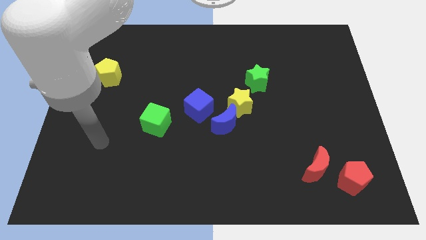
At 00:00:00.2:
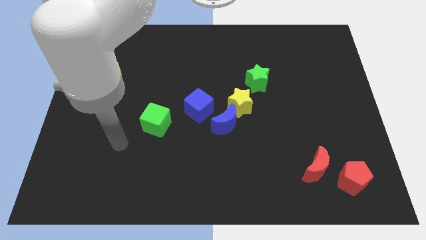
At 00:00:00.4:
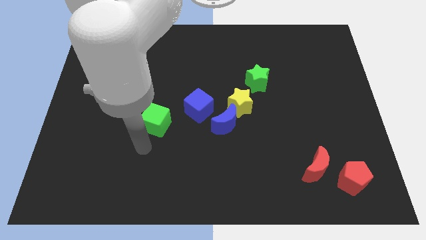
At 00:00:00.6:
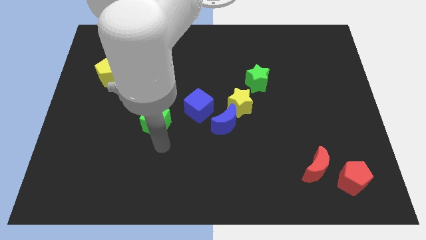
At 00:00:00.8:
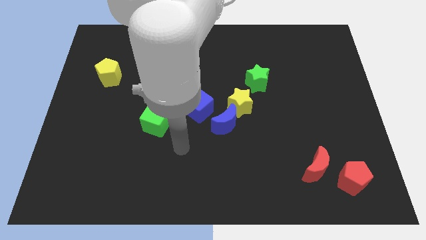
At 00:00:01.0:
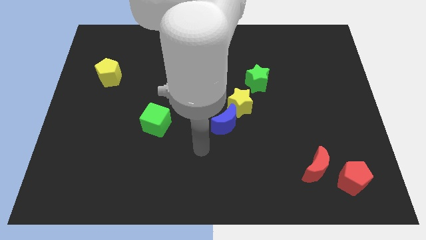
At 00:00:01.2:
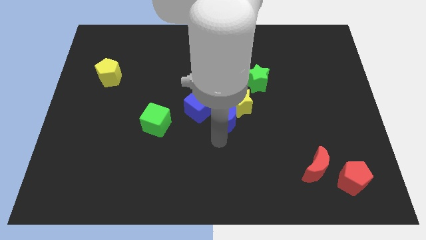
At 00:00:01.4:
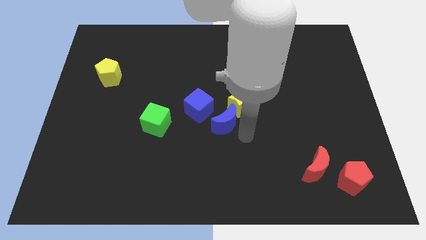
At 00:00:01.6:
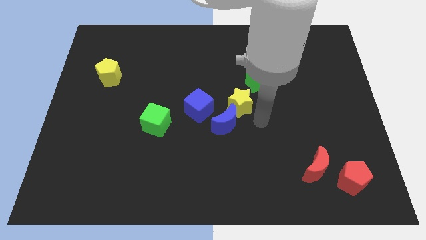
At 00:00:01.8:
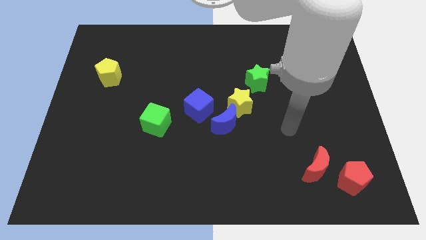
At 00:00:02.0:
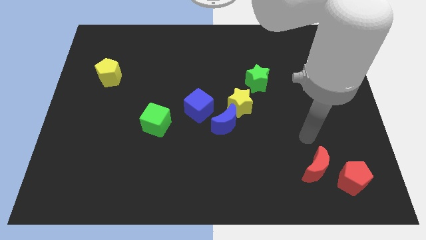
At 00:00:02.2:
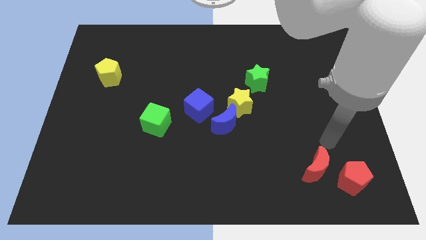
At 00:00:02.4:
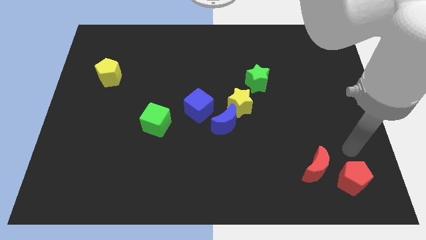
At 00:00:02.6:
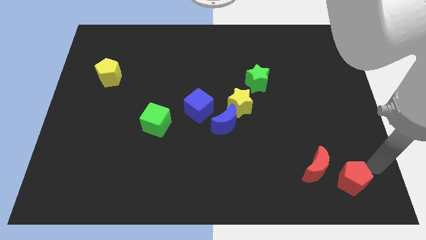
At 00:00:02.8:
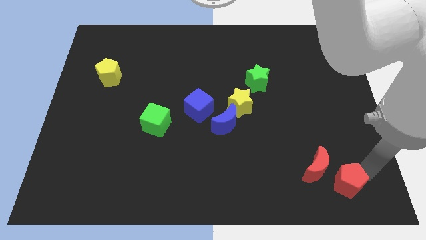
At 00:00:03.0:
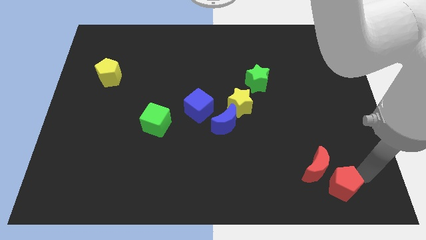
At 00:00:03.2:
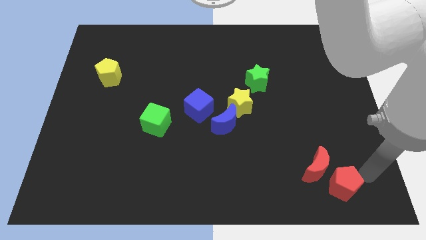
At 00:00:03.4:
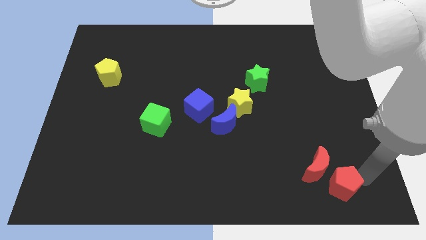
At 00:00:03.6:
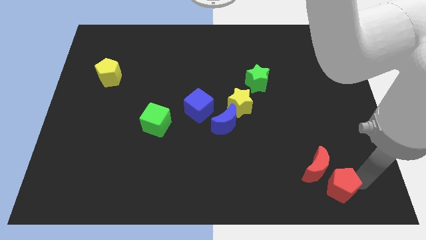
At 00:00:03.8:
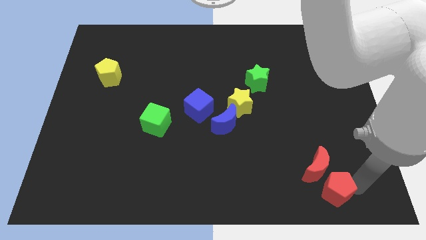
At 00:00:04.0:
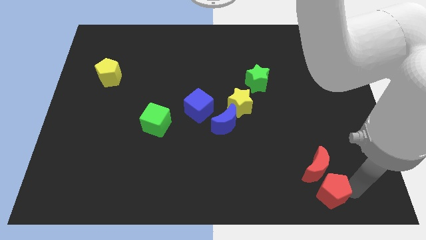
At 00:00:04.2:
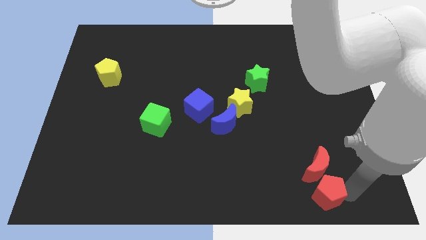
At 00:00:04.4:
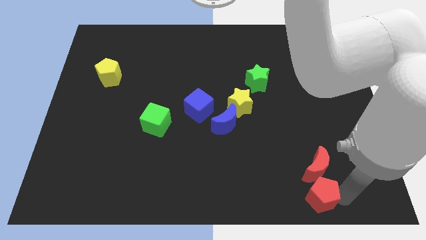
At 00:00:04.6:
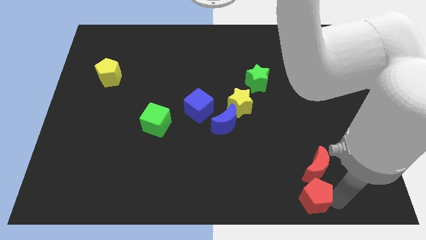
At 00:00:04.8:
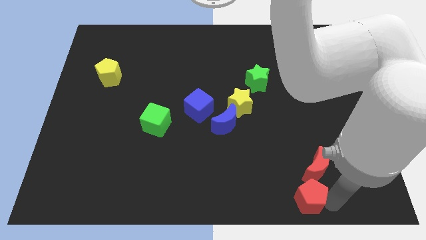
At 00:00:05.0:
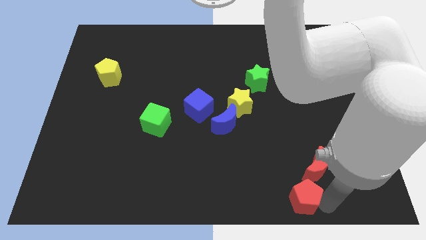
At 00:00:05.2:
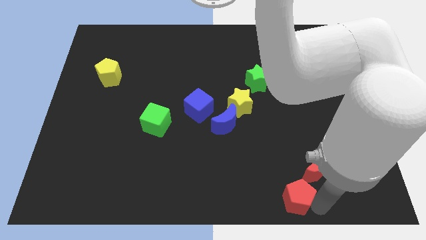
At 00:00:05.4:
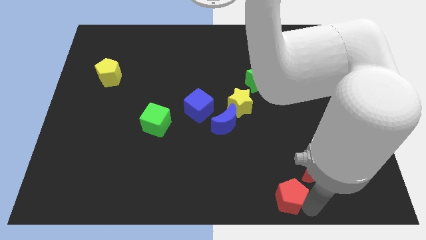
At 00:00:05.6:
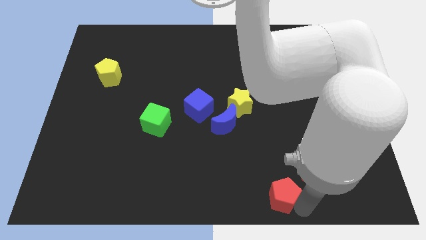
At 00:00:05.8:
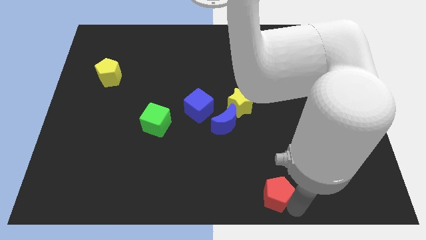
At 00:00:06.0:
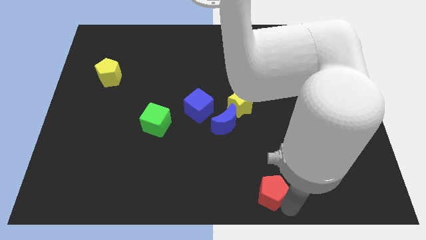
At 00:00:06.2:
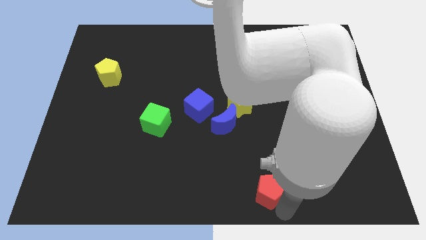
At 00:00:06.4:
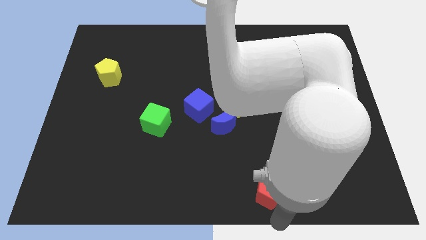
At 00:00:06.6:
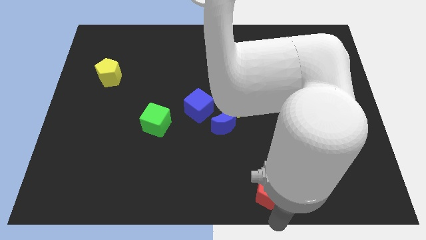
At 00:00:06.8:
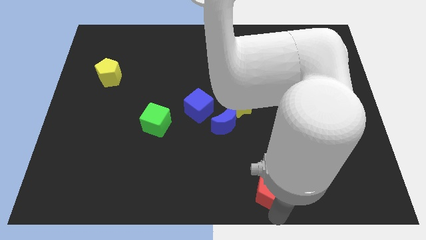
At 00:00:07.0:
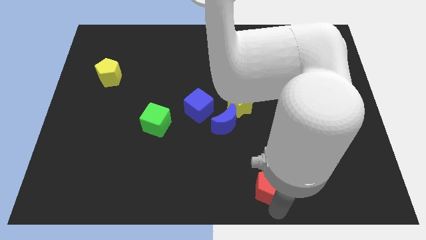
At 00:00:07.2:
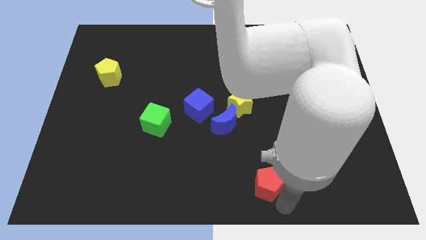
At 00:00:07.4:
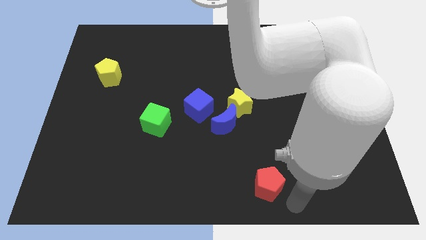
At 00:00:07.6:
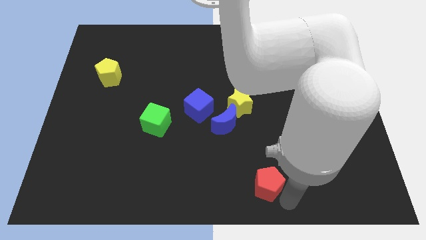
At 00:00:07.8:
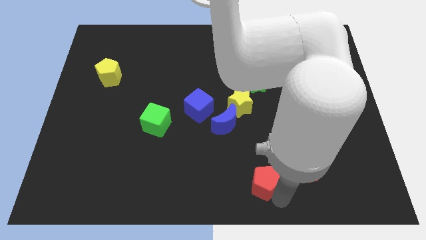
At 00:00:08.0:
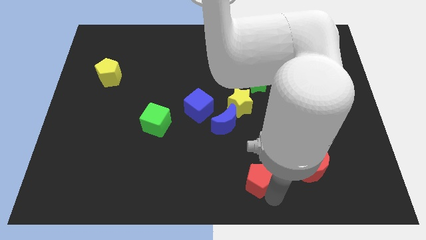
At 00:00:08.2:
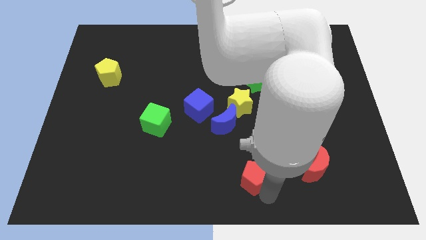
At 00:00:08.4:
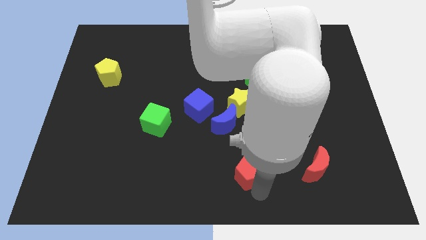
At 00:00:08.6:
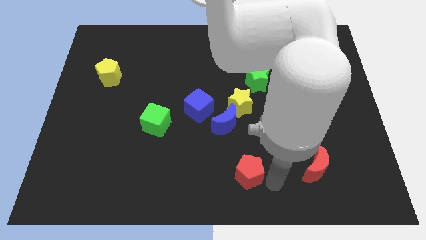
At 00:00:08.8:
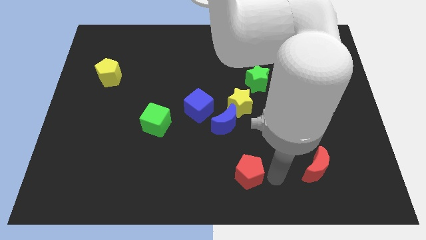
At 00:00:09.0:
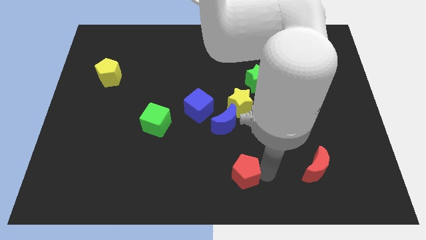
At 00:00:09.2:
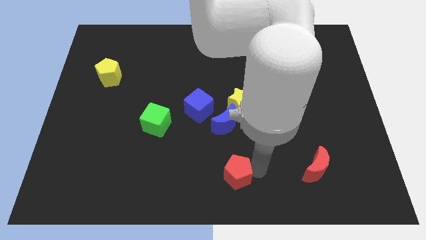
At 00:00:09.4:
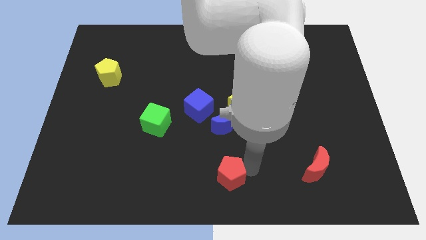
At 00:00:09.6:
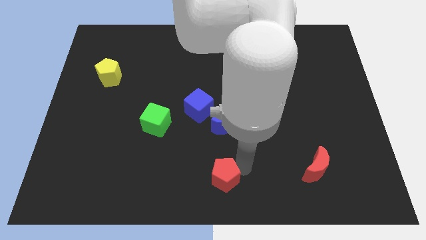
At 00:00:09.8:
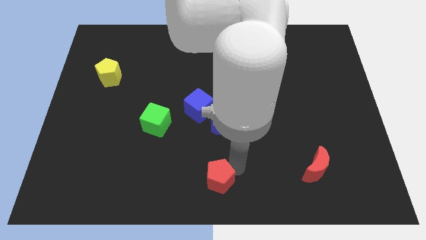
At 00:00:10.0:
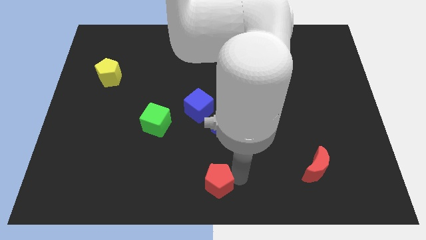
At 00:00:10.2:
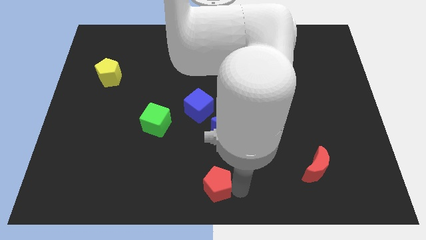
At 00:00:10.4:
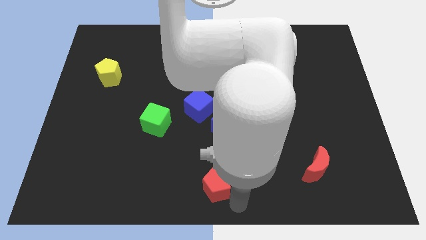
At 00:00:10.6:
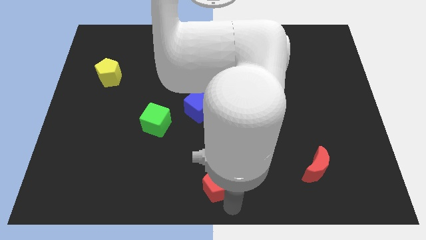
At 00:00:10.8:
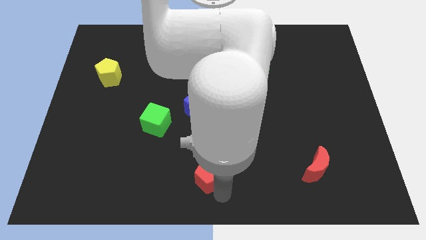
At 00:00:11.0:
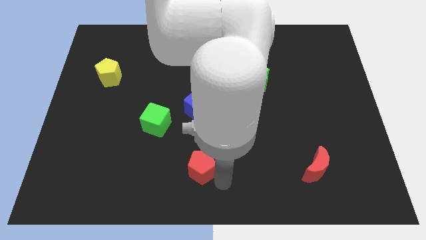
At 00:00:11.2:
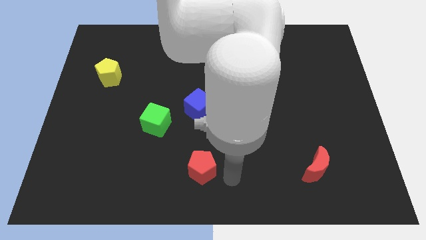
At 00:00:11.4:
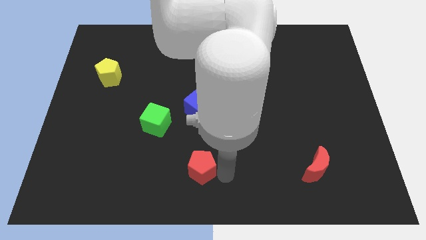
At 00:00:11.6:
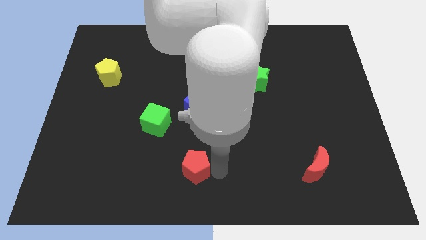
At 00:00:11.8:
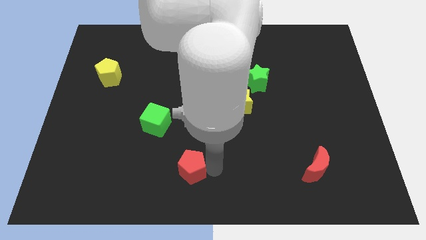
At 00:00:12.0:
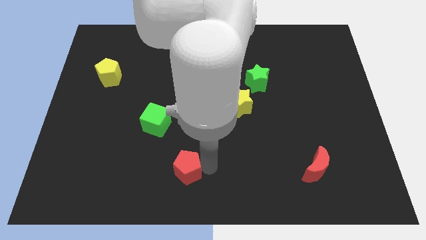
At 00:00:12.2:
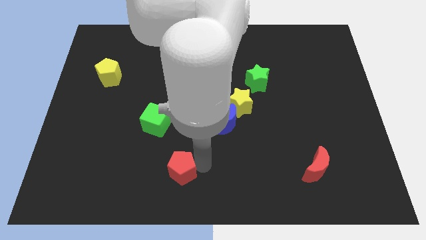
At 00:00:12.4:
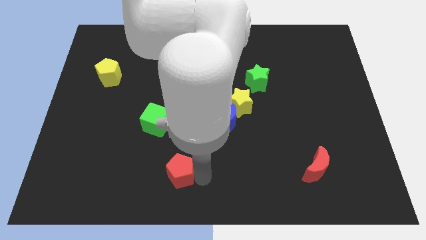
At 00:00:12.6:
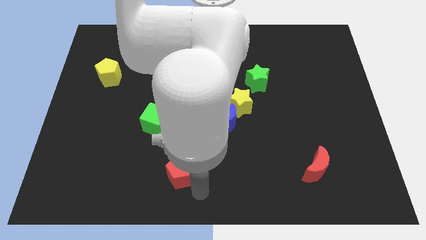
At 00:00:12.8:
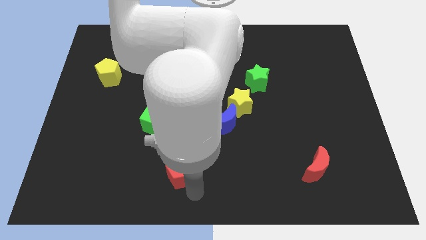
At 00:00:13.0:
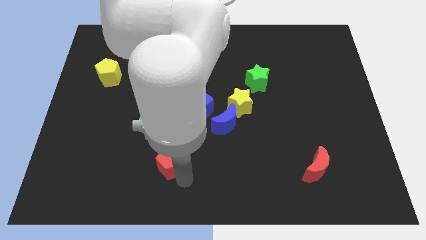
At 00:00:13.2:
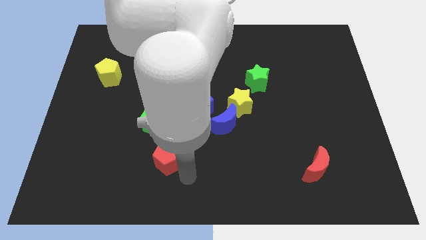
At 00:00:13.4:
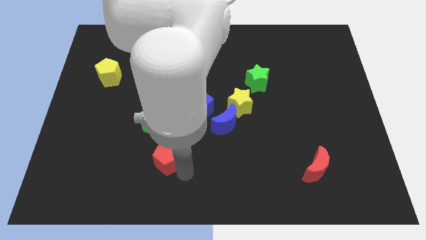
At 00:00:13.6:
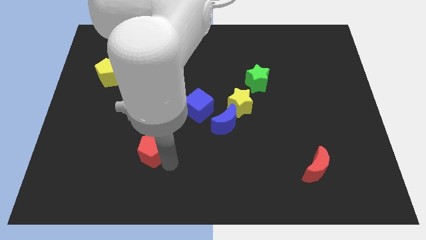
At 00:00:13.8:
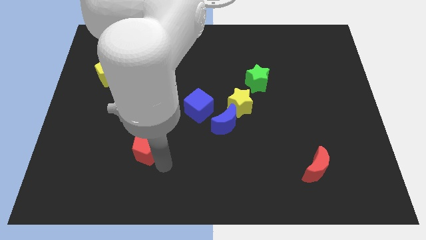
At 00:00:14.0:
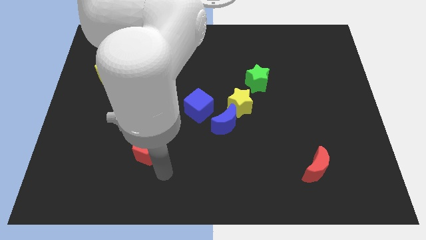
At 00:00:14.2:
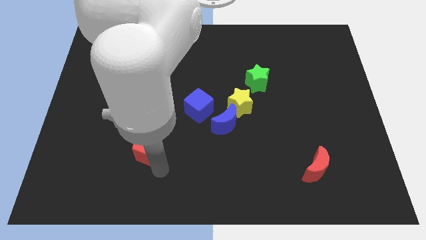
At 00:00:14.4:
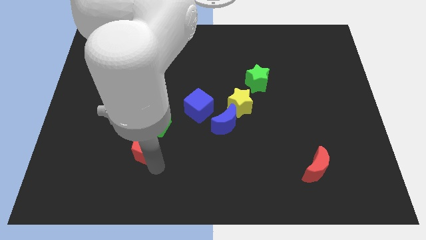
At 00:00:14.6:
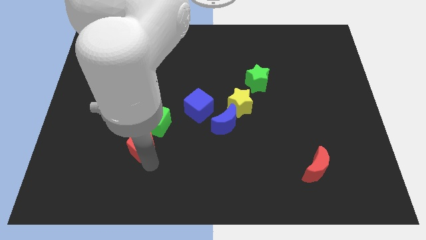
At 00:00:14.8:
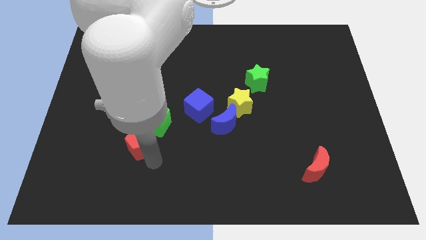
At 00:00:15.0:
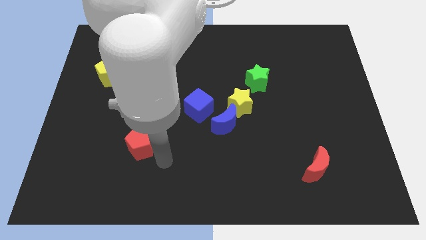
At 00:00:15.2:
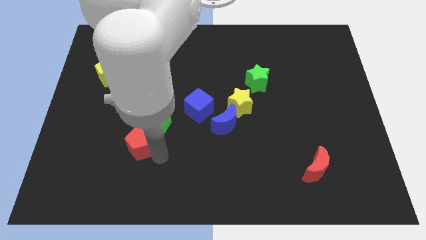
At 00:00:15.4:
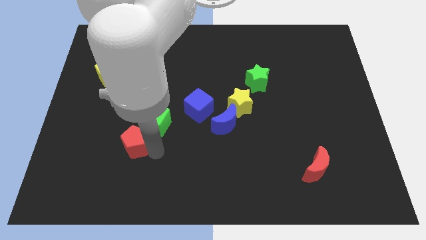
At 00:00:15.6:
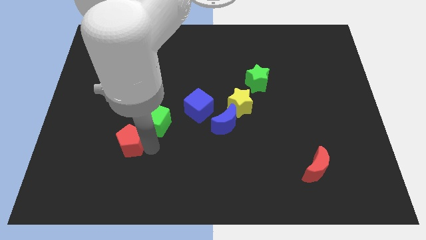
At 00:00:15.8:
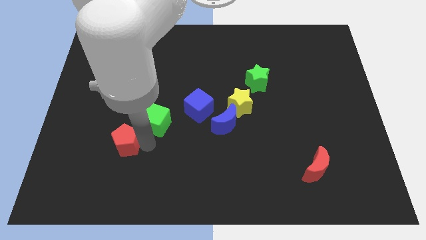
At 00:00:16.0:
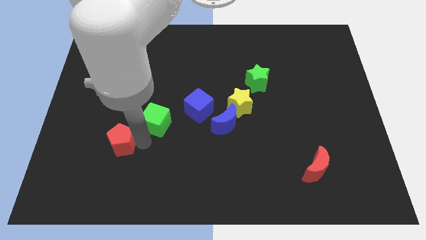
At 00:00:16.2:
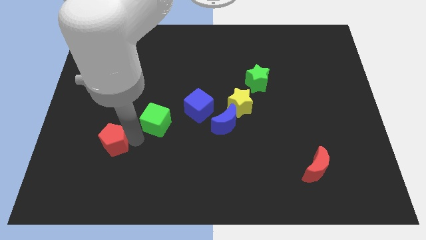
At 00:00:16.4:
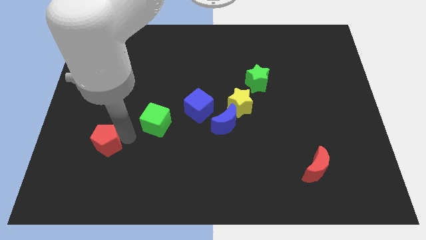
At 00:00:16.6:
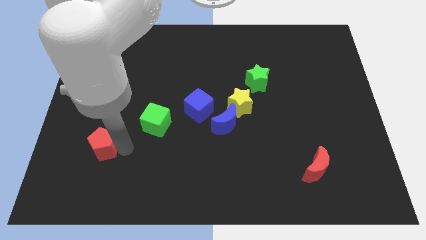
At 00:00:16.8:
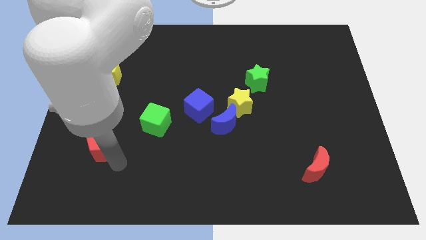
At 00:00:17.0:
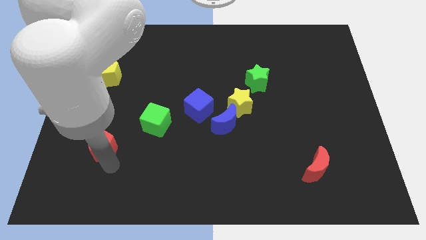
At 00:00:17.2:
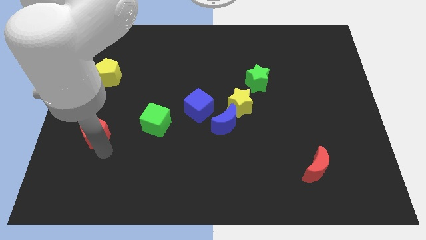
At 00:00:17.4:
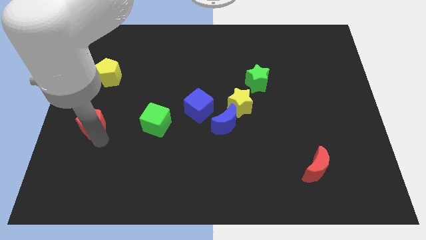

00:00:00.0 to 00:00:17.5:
slide the red pentagon to the left side of the board
